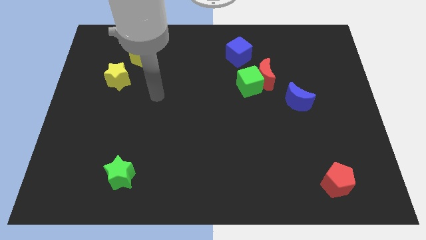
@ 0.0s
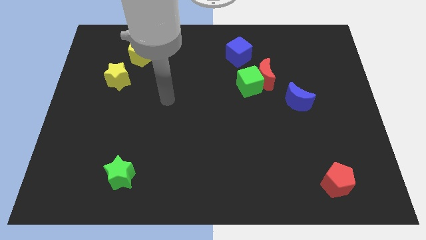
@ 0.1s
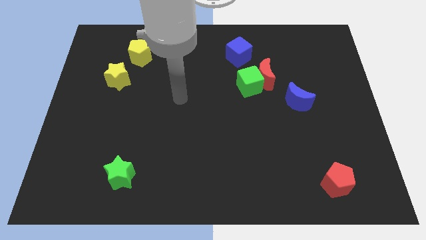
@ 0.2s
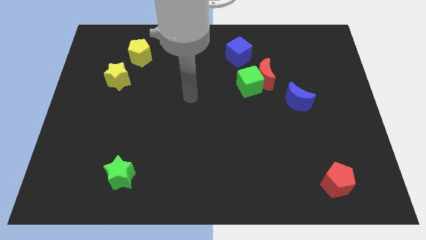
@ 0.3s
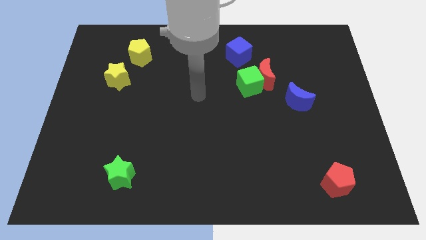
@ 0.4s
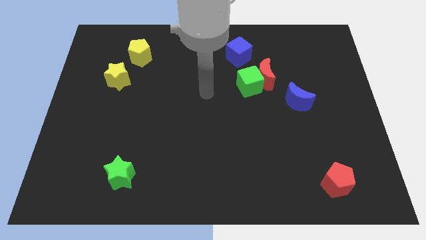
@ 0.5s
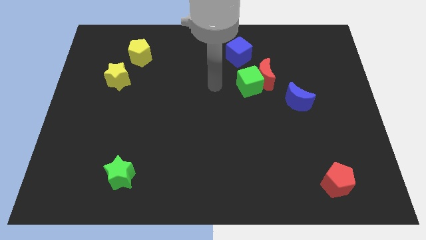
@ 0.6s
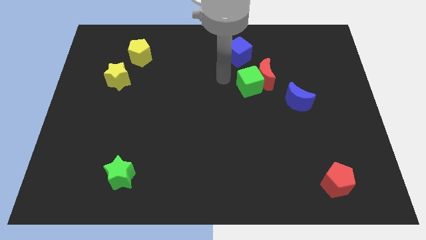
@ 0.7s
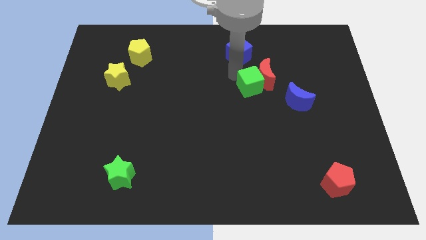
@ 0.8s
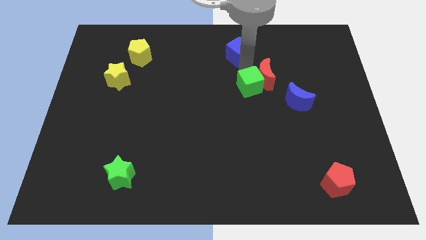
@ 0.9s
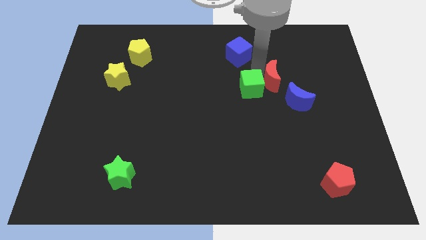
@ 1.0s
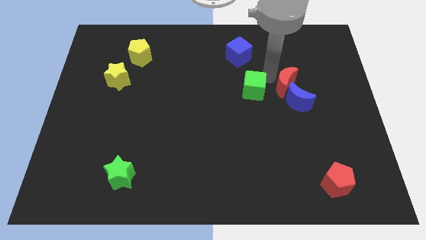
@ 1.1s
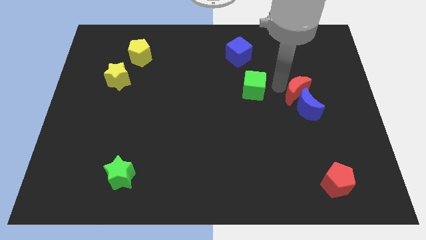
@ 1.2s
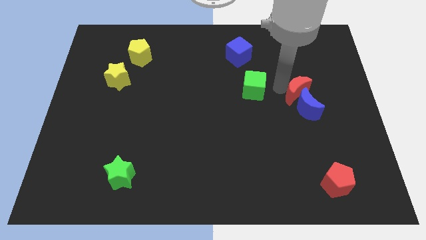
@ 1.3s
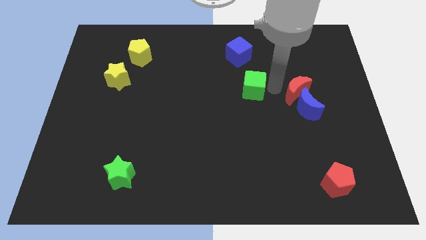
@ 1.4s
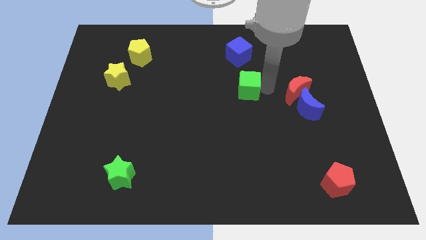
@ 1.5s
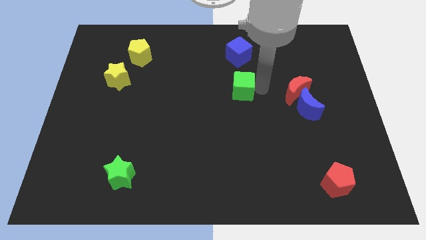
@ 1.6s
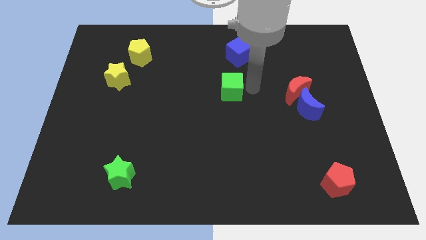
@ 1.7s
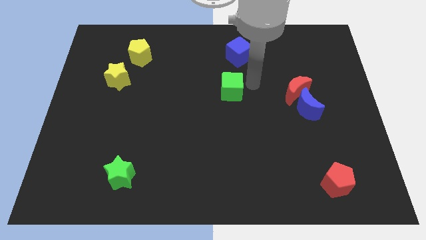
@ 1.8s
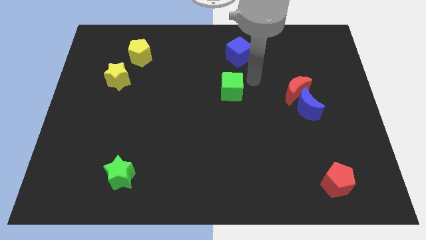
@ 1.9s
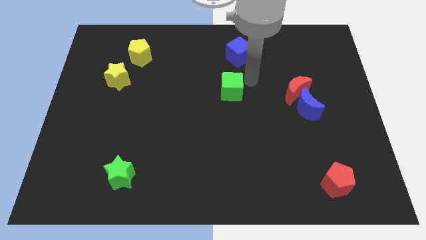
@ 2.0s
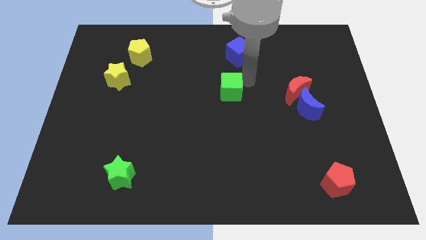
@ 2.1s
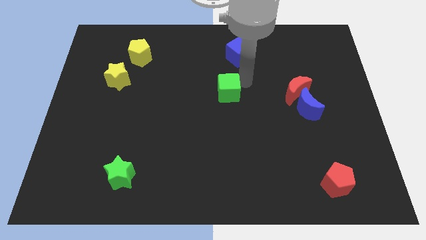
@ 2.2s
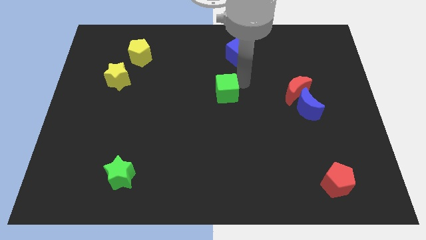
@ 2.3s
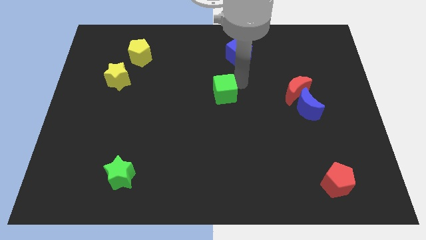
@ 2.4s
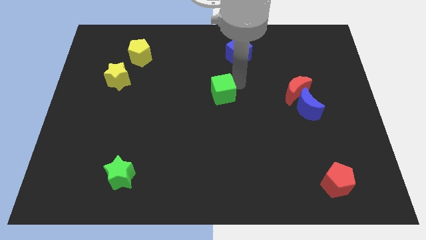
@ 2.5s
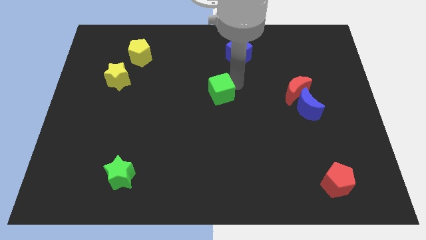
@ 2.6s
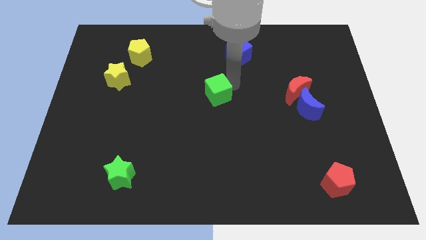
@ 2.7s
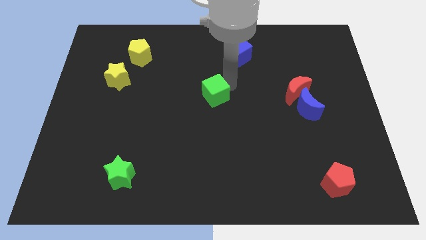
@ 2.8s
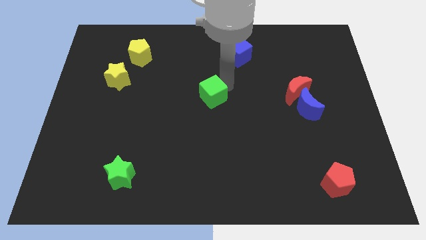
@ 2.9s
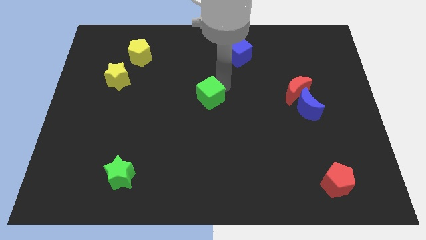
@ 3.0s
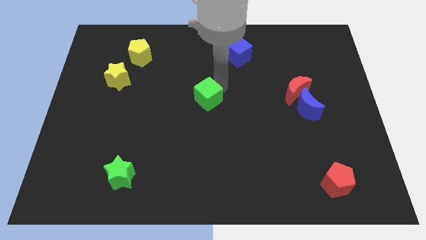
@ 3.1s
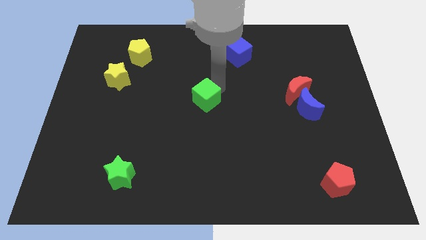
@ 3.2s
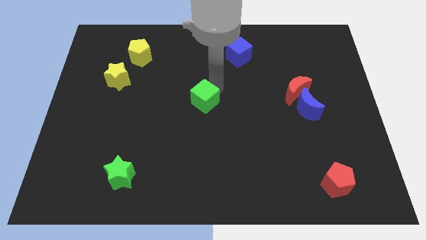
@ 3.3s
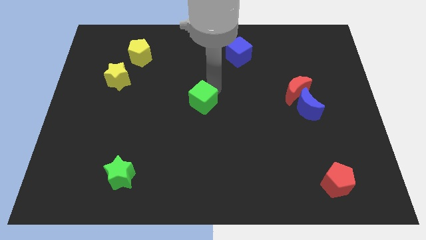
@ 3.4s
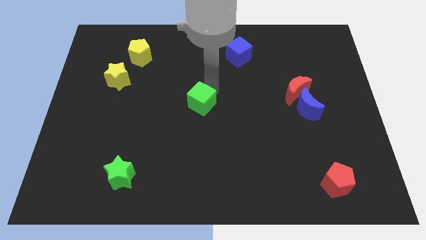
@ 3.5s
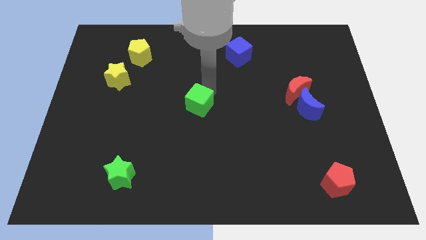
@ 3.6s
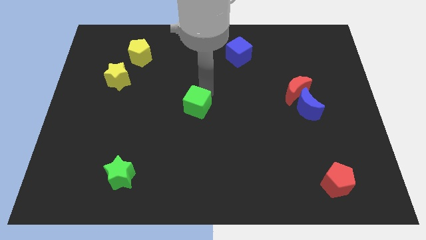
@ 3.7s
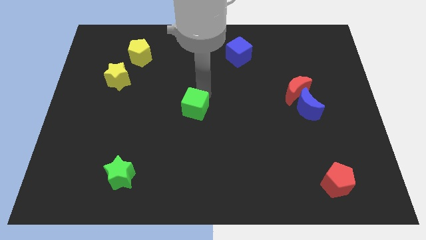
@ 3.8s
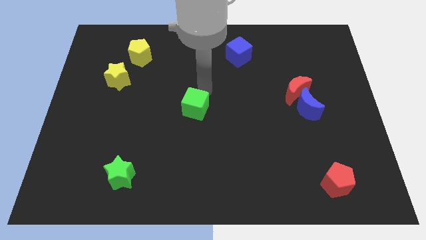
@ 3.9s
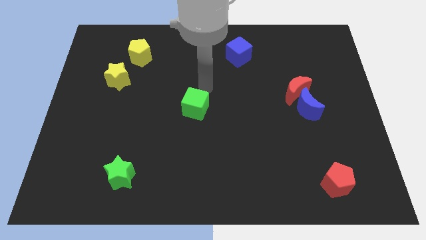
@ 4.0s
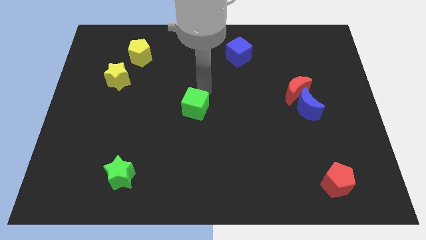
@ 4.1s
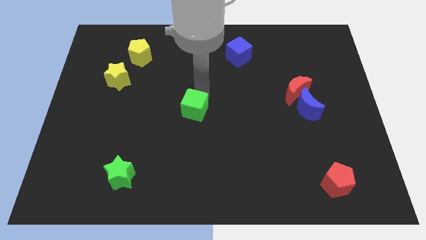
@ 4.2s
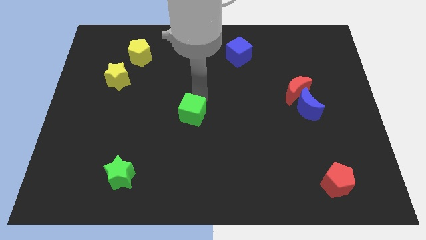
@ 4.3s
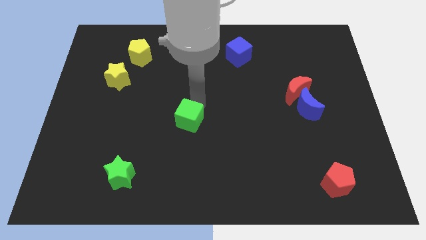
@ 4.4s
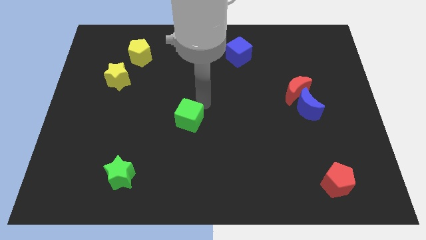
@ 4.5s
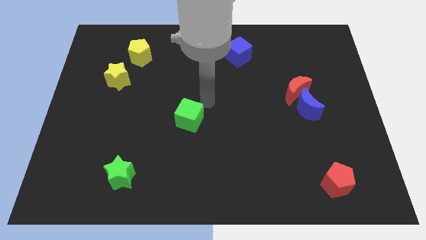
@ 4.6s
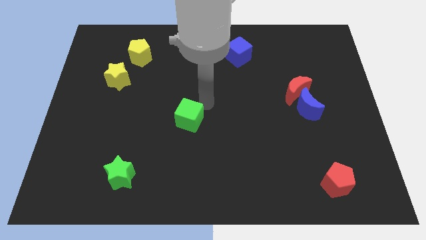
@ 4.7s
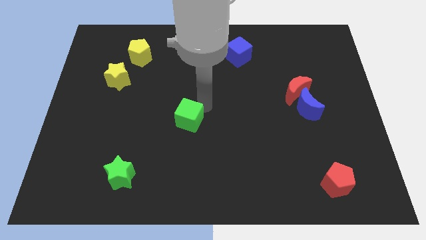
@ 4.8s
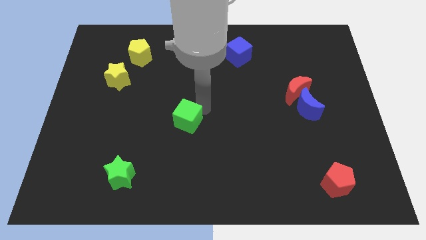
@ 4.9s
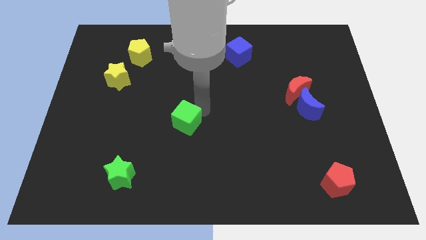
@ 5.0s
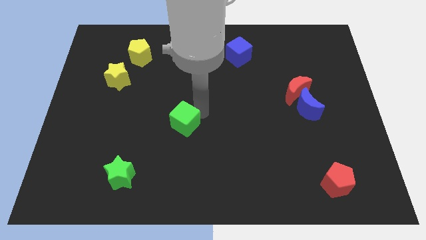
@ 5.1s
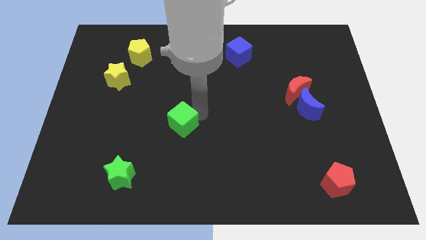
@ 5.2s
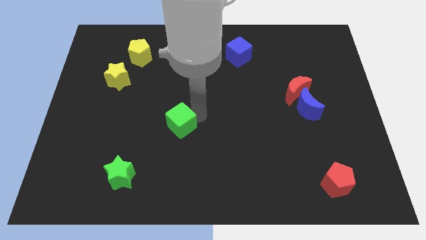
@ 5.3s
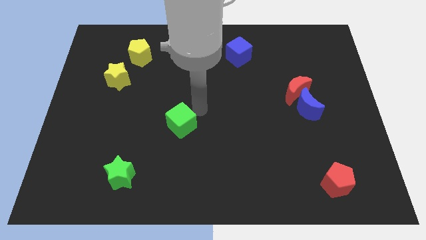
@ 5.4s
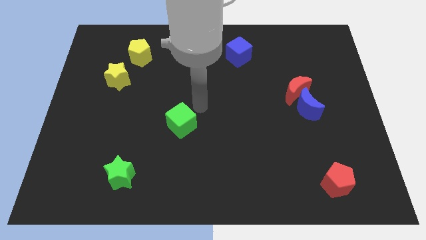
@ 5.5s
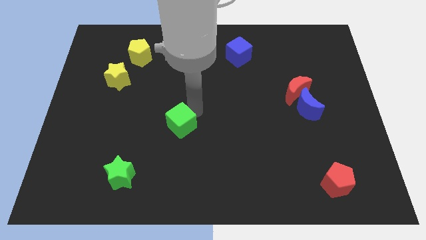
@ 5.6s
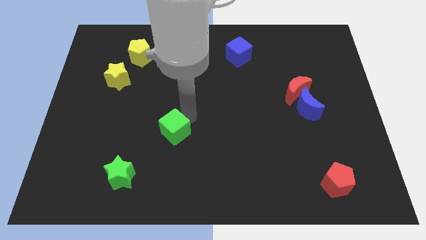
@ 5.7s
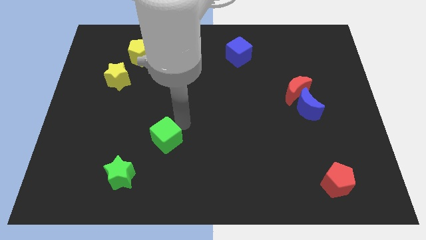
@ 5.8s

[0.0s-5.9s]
slide the green cube to the top right side of the green star

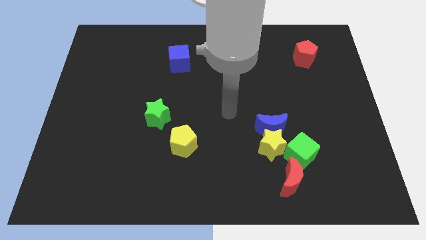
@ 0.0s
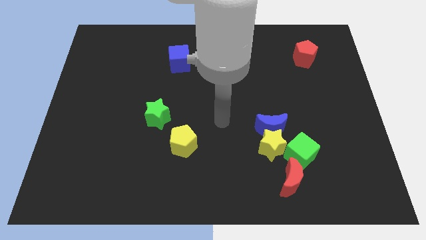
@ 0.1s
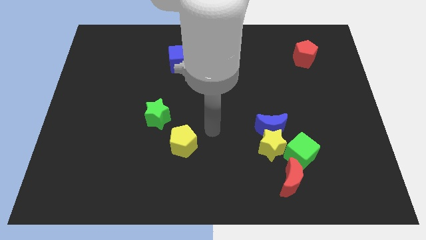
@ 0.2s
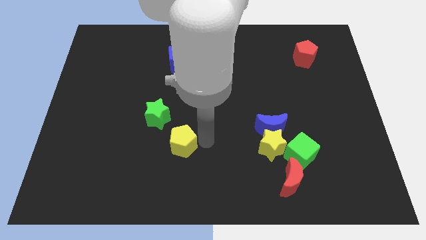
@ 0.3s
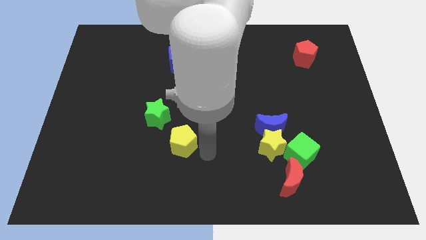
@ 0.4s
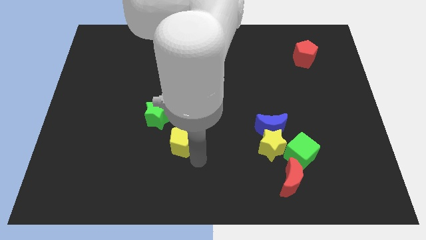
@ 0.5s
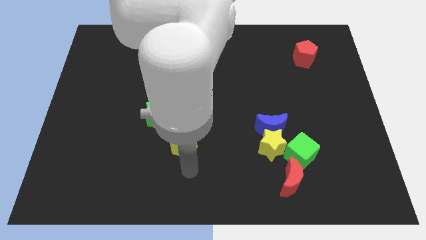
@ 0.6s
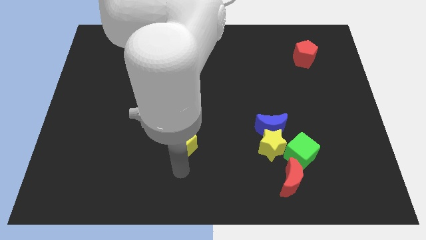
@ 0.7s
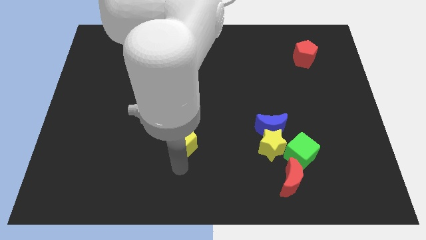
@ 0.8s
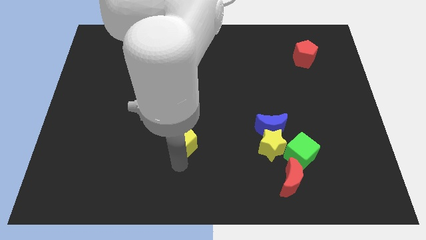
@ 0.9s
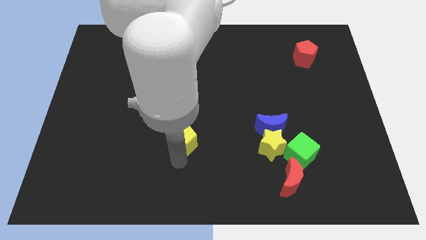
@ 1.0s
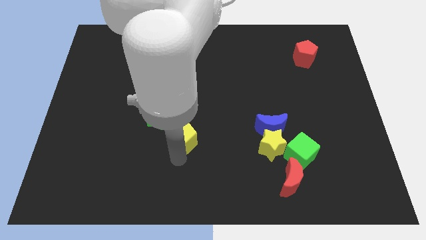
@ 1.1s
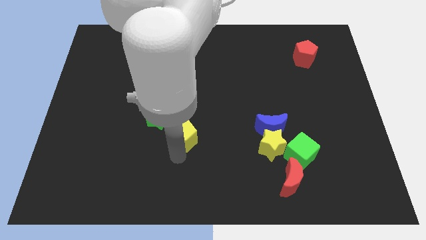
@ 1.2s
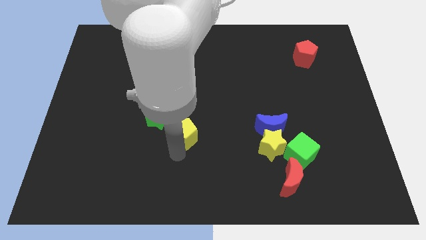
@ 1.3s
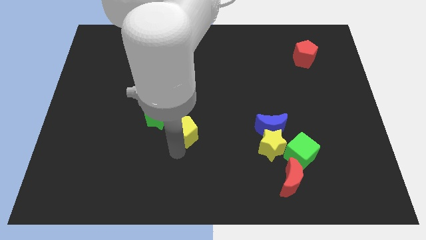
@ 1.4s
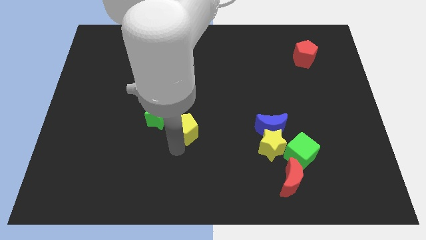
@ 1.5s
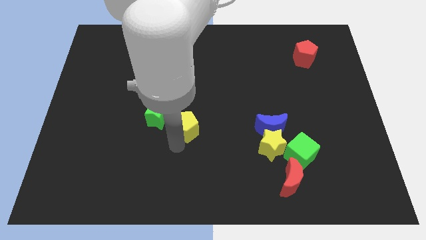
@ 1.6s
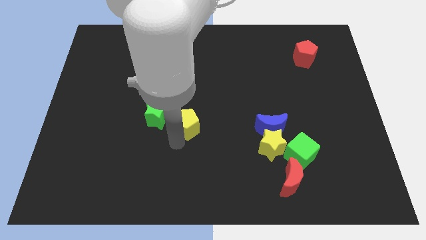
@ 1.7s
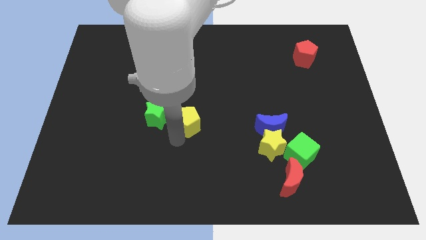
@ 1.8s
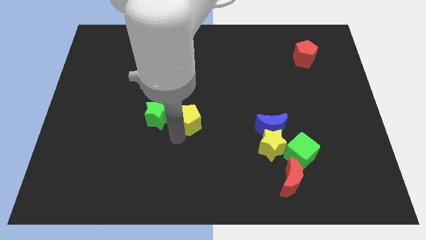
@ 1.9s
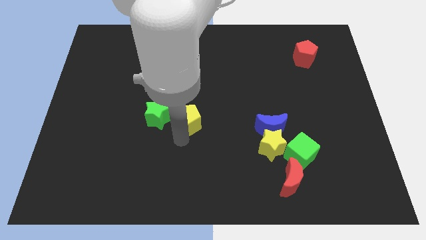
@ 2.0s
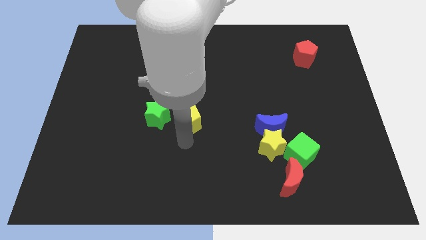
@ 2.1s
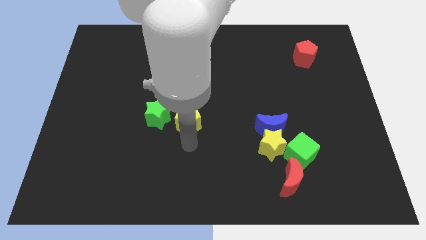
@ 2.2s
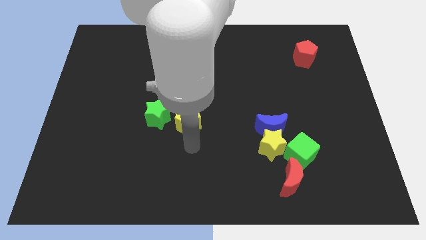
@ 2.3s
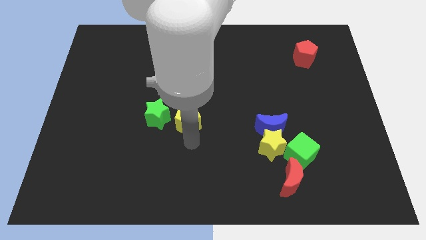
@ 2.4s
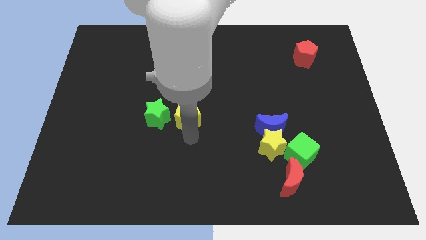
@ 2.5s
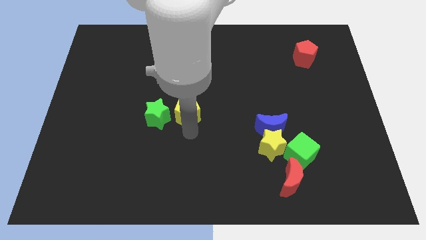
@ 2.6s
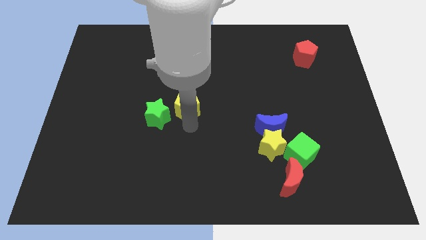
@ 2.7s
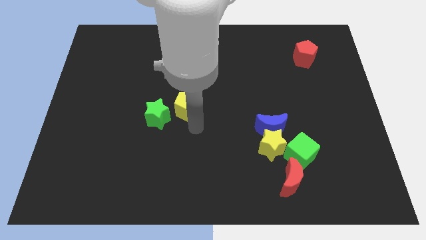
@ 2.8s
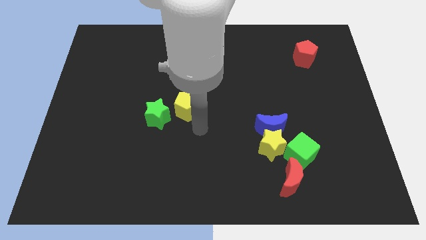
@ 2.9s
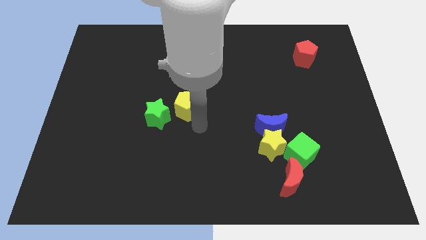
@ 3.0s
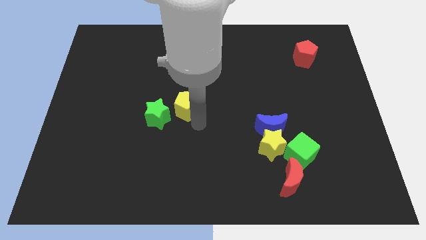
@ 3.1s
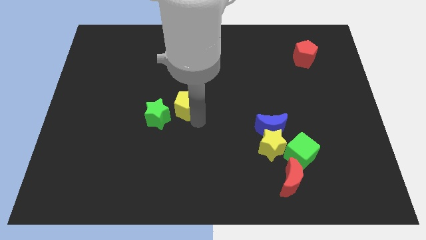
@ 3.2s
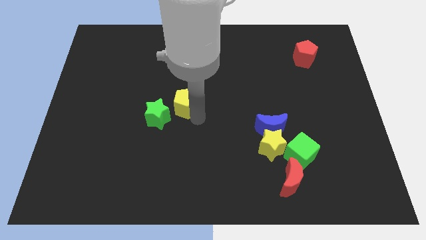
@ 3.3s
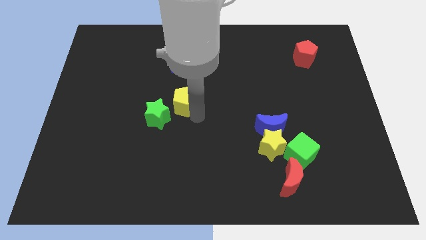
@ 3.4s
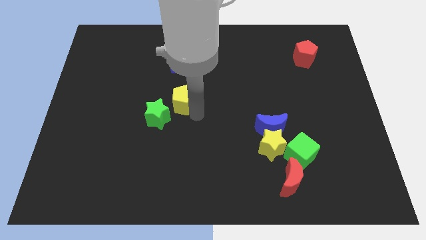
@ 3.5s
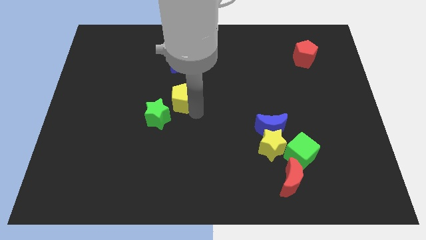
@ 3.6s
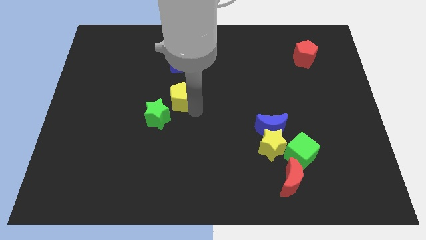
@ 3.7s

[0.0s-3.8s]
put the yellow pentagon above the green star
